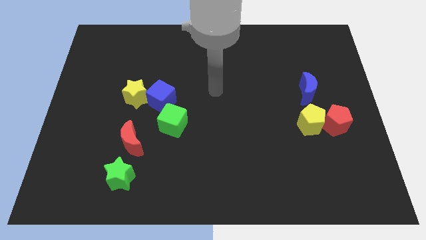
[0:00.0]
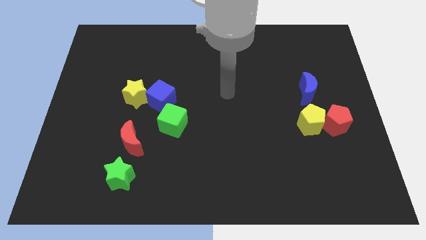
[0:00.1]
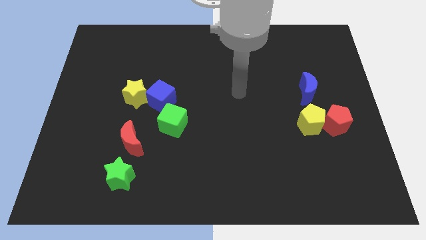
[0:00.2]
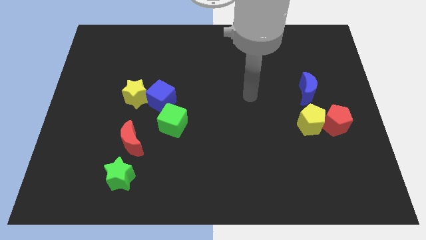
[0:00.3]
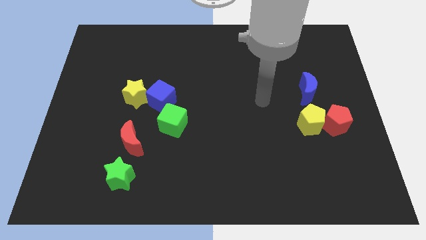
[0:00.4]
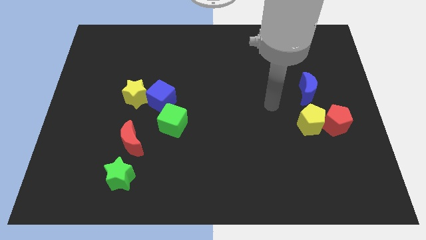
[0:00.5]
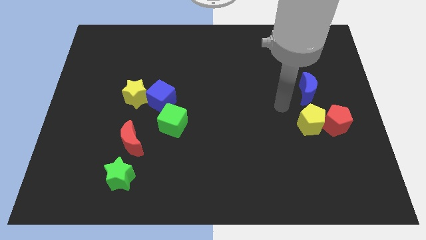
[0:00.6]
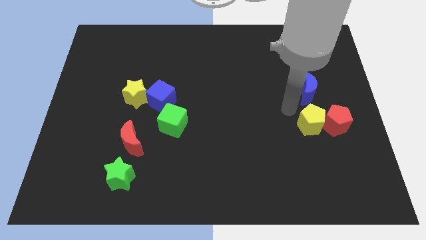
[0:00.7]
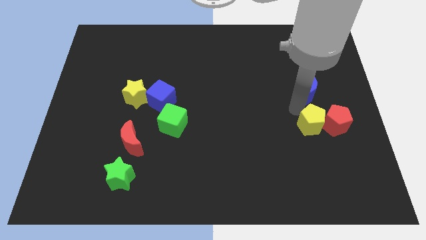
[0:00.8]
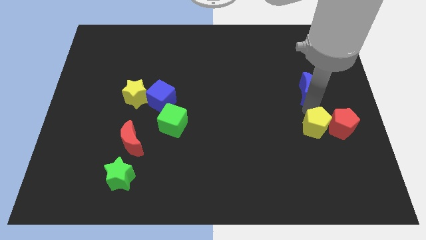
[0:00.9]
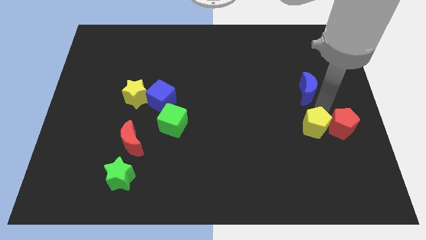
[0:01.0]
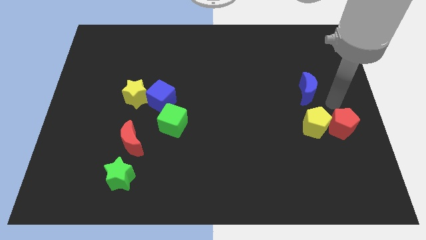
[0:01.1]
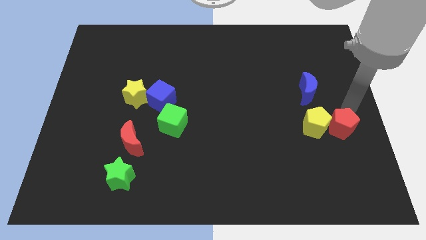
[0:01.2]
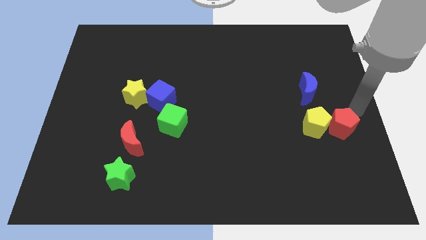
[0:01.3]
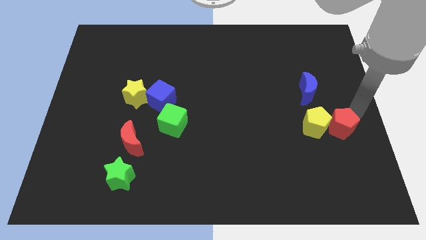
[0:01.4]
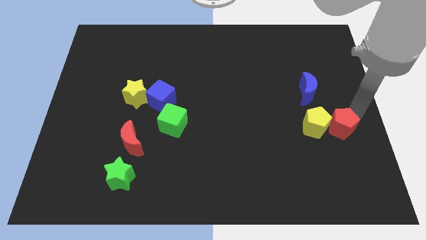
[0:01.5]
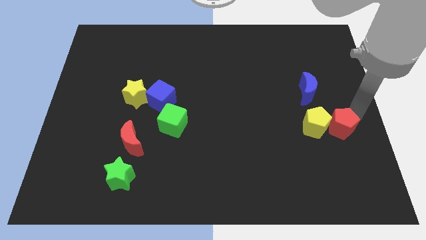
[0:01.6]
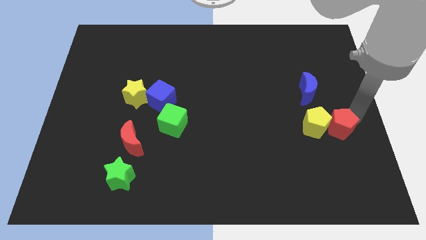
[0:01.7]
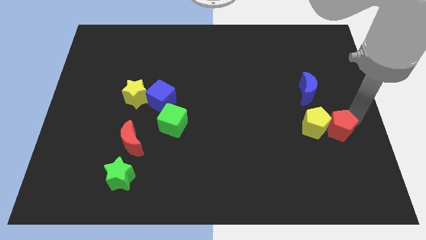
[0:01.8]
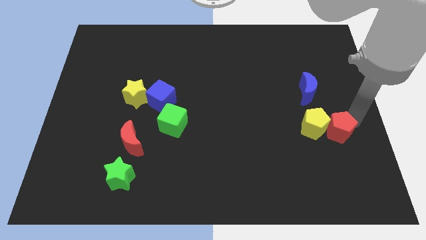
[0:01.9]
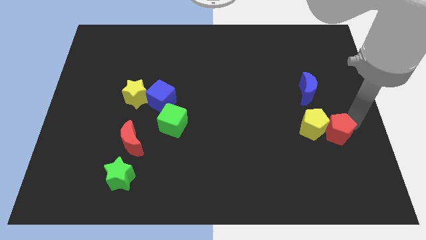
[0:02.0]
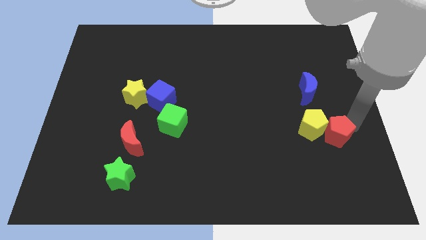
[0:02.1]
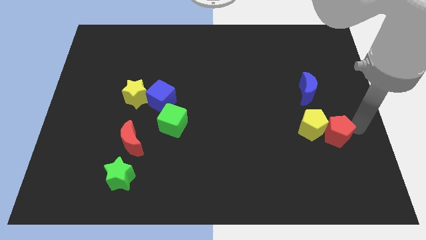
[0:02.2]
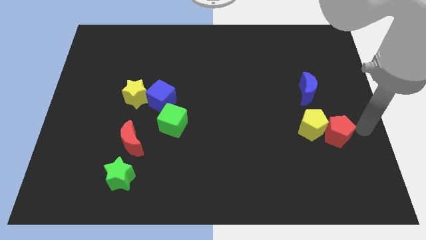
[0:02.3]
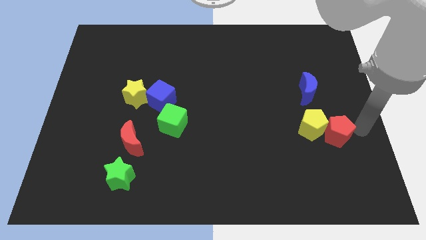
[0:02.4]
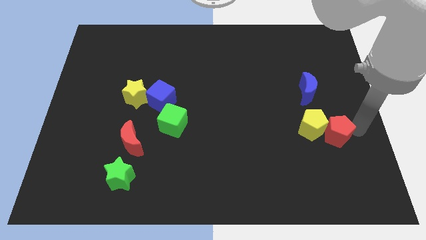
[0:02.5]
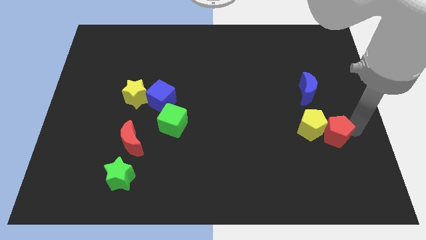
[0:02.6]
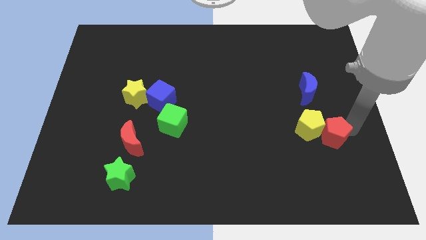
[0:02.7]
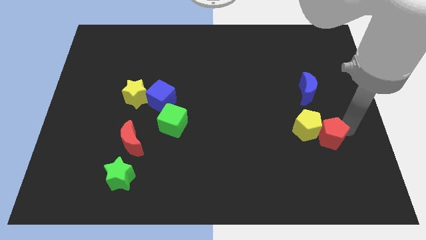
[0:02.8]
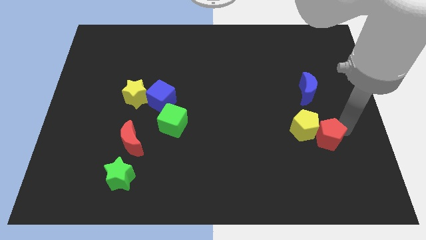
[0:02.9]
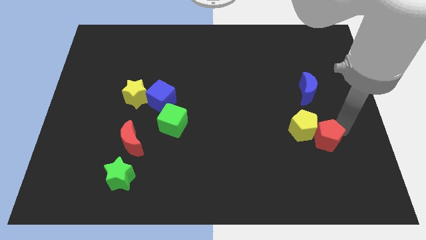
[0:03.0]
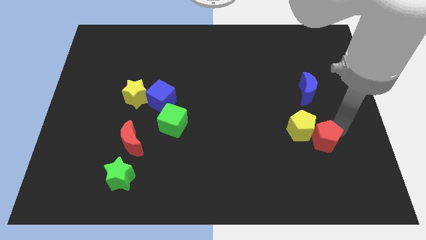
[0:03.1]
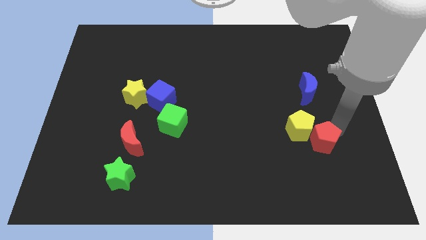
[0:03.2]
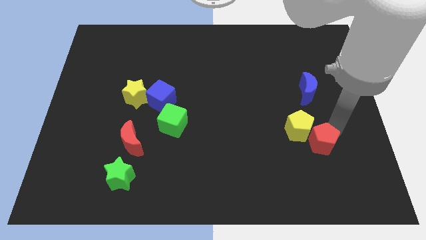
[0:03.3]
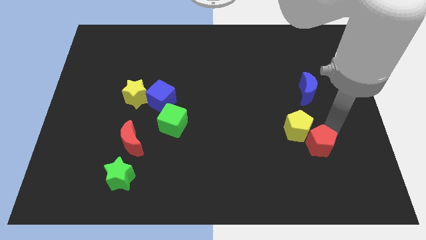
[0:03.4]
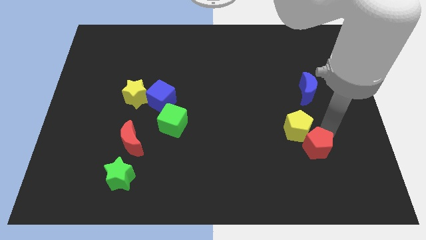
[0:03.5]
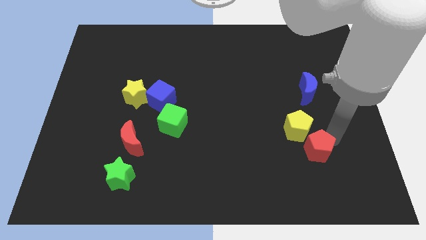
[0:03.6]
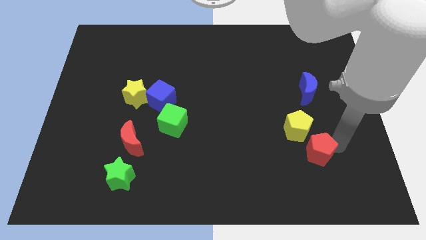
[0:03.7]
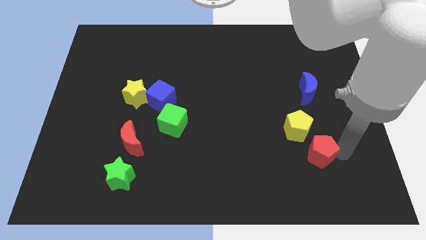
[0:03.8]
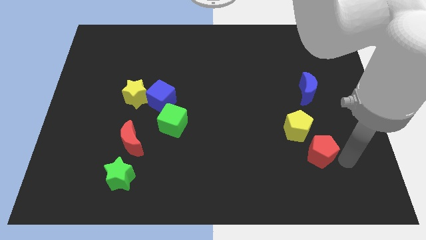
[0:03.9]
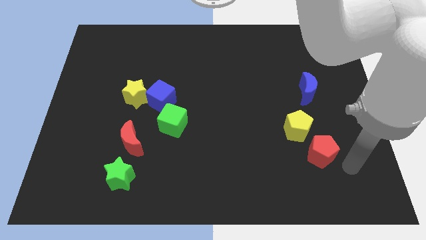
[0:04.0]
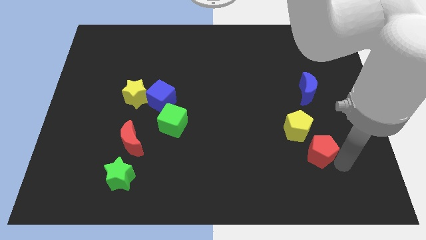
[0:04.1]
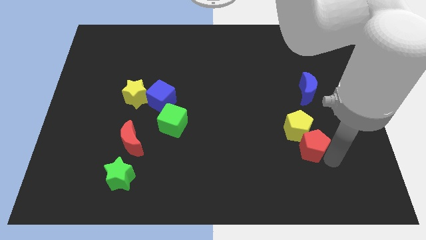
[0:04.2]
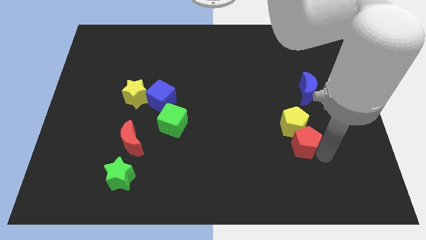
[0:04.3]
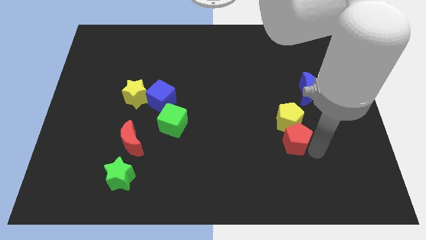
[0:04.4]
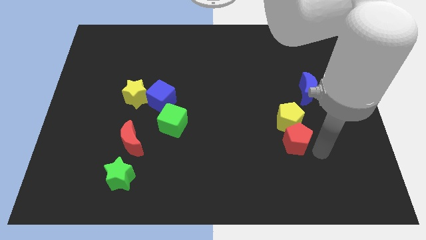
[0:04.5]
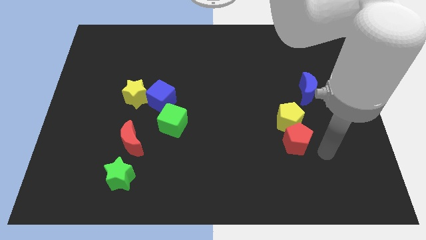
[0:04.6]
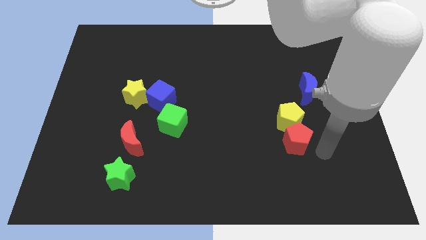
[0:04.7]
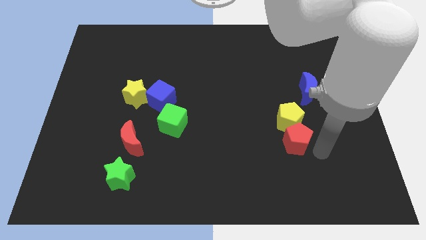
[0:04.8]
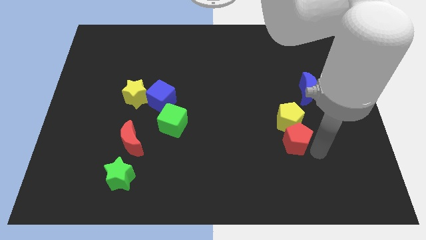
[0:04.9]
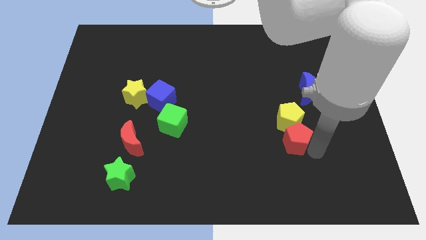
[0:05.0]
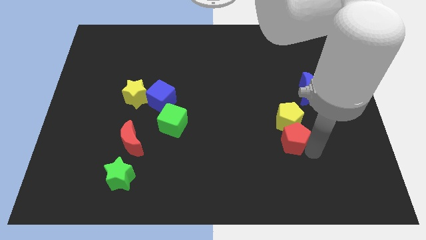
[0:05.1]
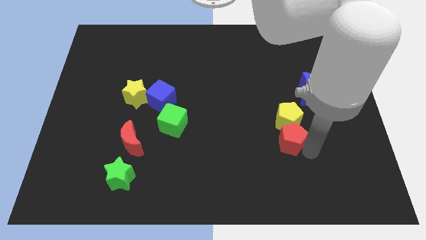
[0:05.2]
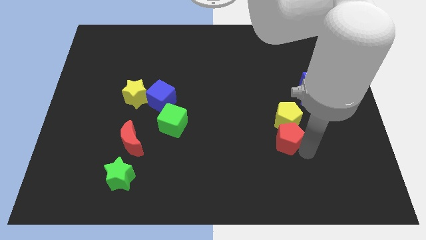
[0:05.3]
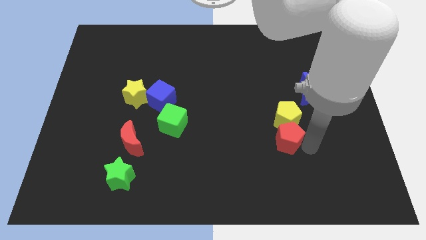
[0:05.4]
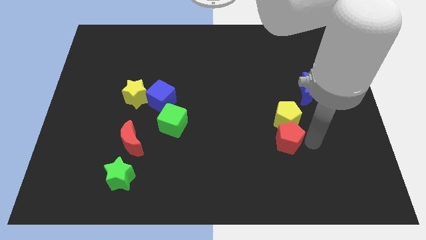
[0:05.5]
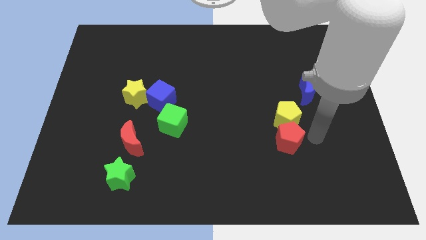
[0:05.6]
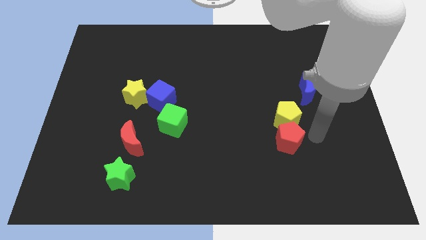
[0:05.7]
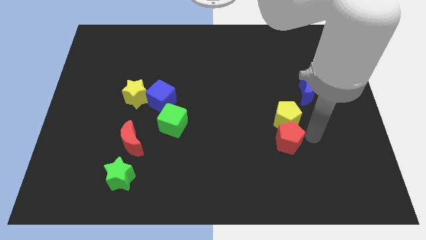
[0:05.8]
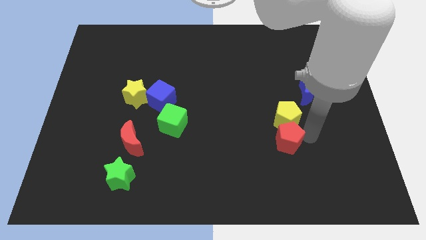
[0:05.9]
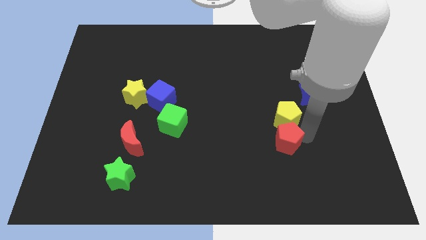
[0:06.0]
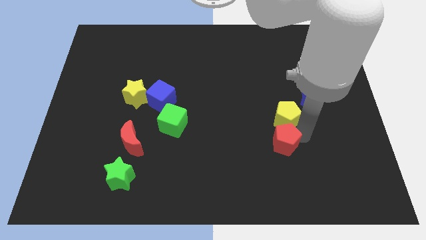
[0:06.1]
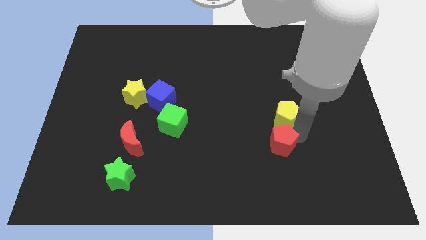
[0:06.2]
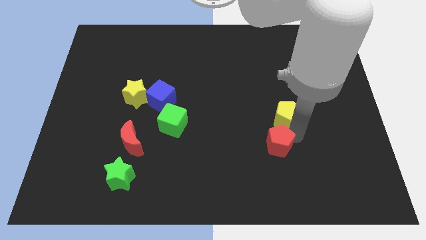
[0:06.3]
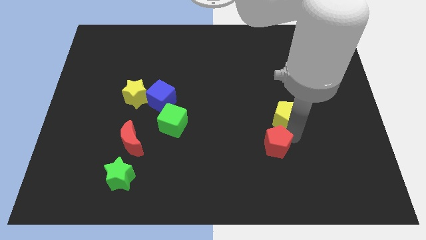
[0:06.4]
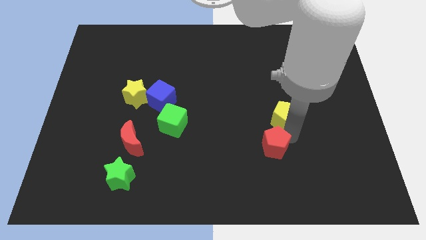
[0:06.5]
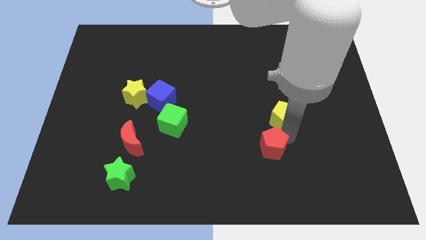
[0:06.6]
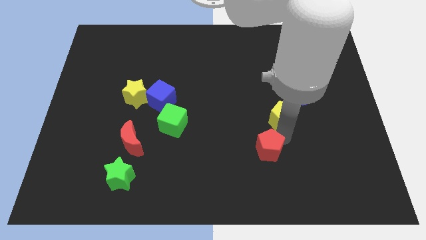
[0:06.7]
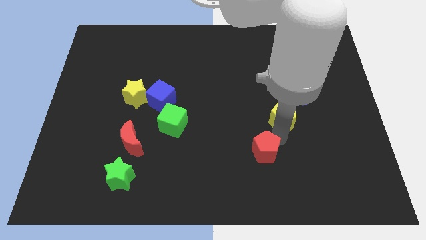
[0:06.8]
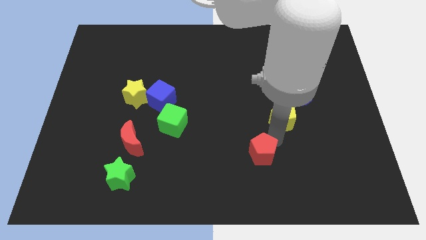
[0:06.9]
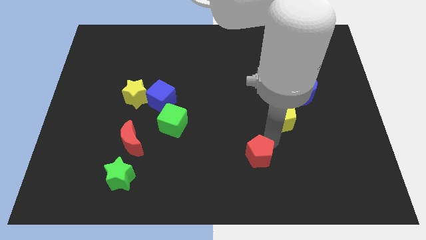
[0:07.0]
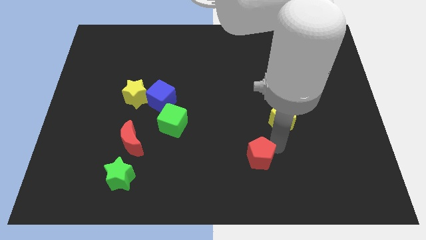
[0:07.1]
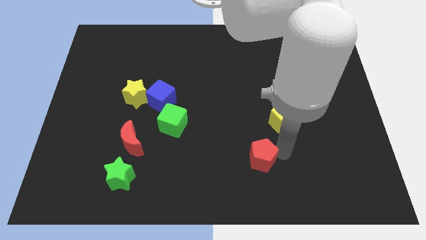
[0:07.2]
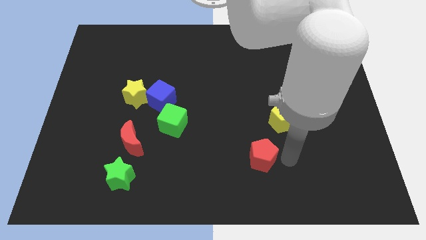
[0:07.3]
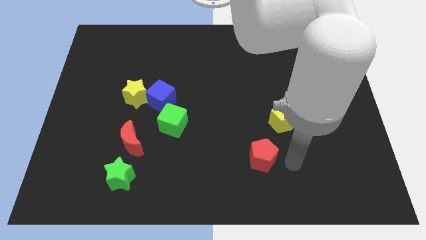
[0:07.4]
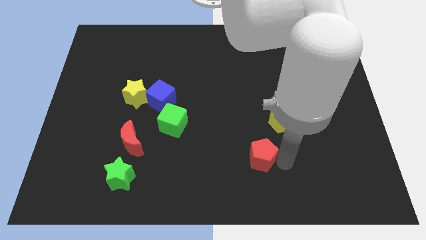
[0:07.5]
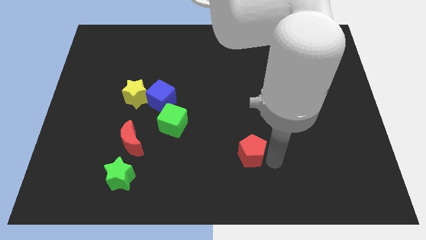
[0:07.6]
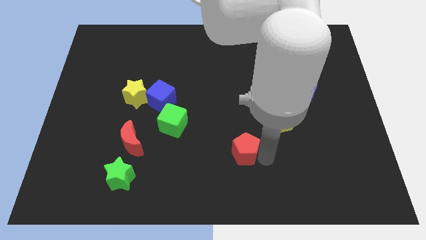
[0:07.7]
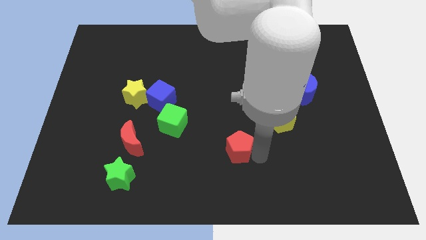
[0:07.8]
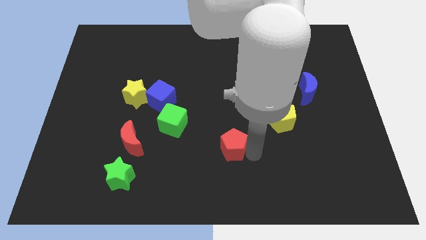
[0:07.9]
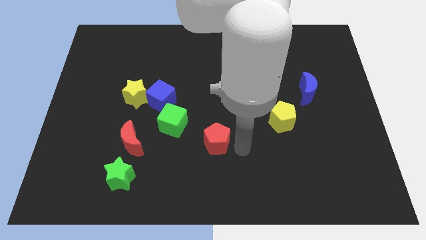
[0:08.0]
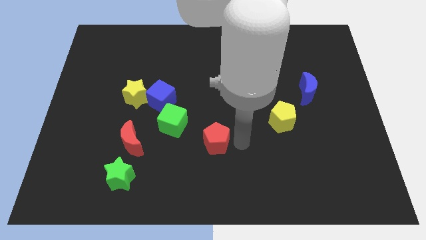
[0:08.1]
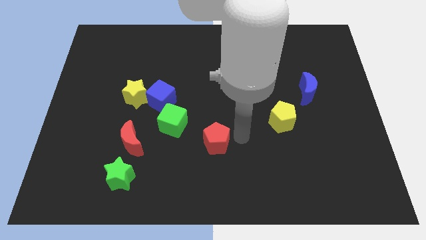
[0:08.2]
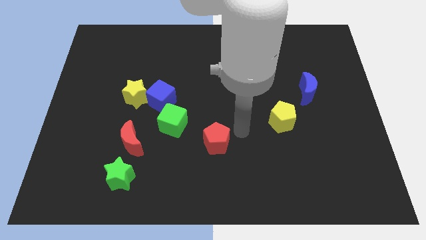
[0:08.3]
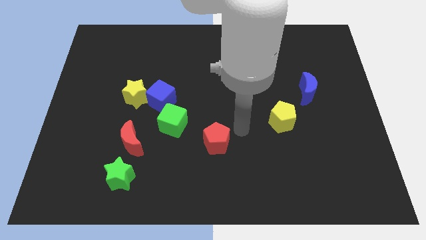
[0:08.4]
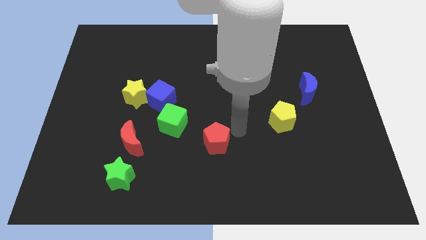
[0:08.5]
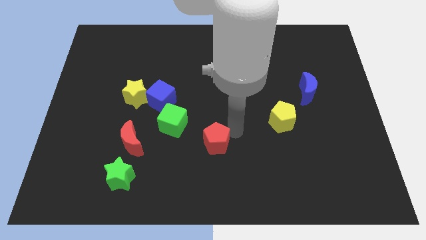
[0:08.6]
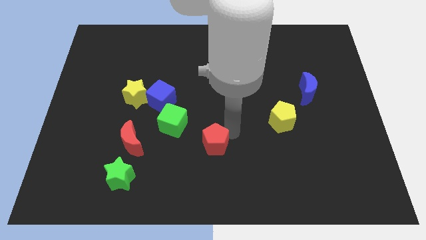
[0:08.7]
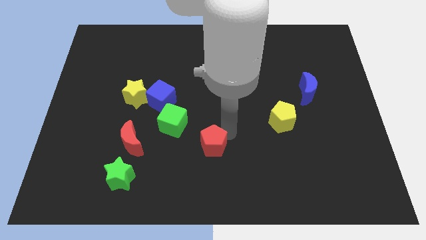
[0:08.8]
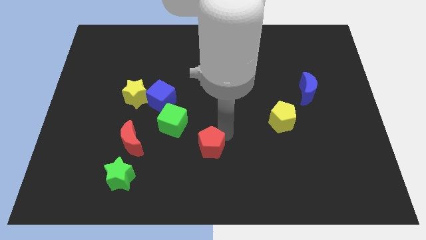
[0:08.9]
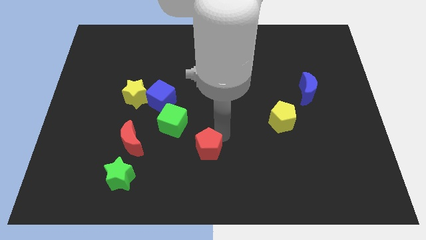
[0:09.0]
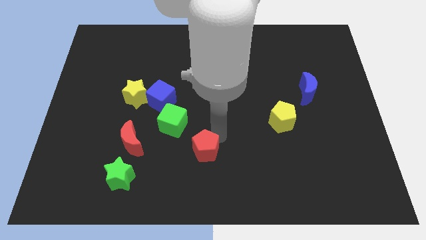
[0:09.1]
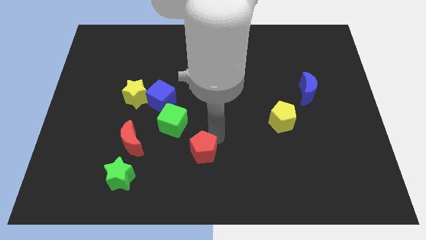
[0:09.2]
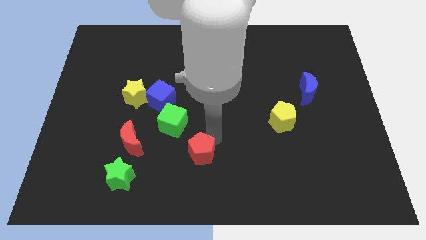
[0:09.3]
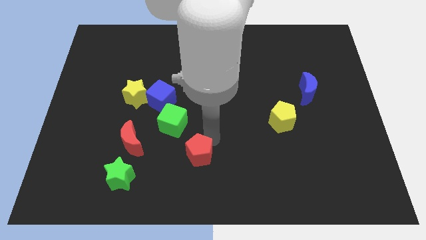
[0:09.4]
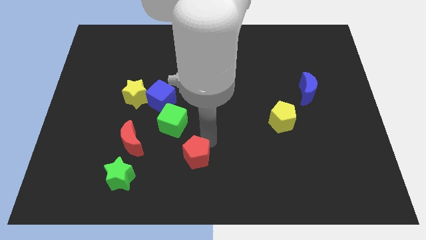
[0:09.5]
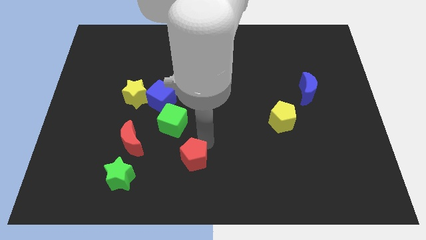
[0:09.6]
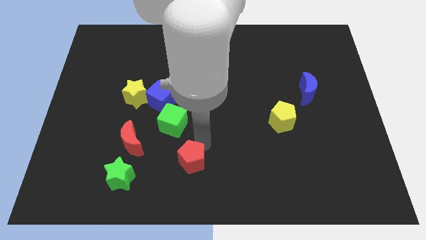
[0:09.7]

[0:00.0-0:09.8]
put the red pentagon below the green cube
